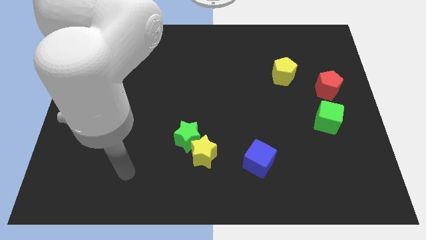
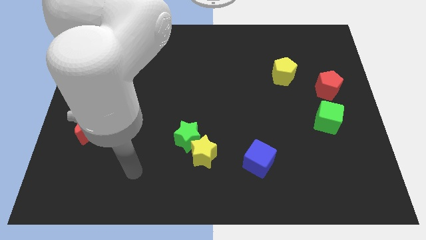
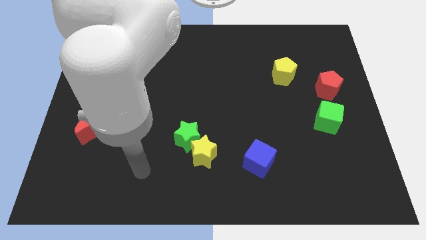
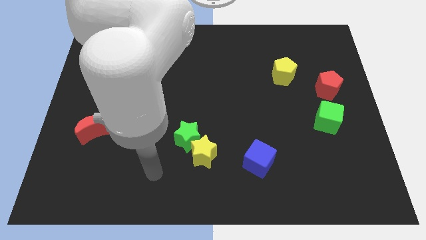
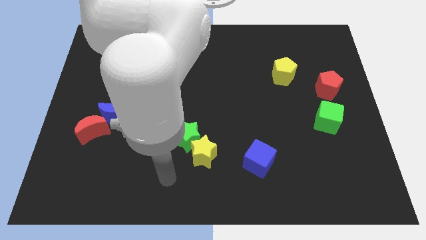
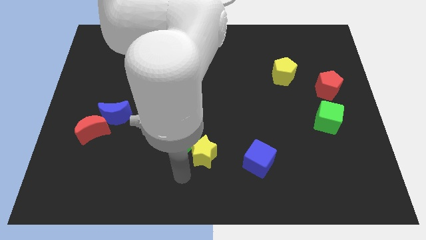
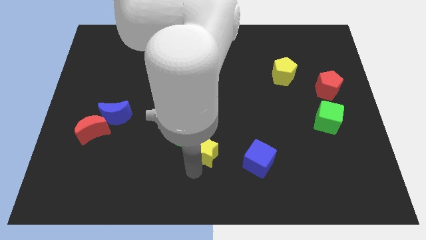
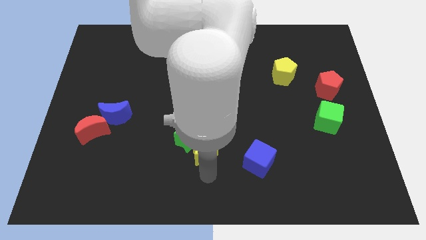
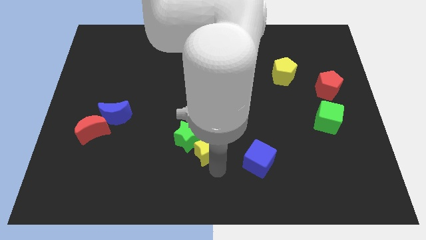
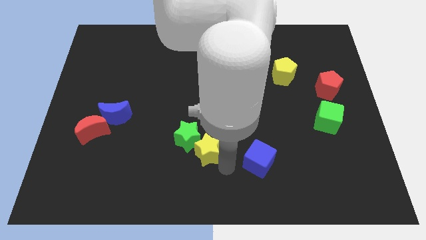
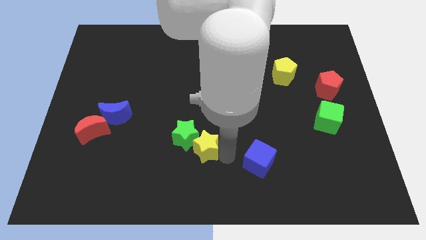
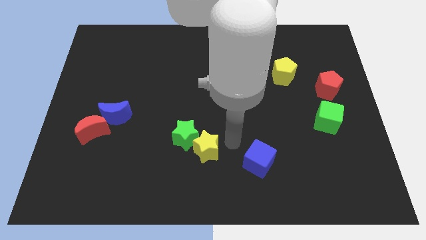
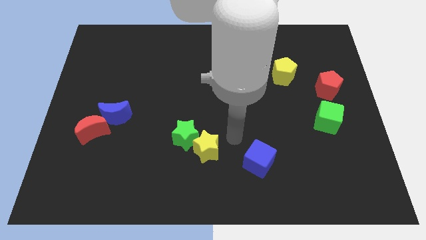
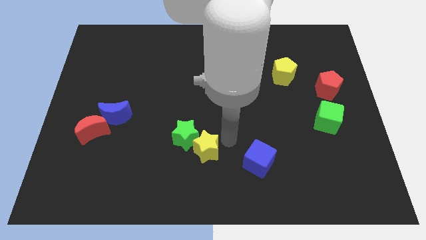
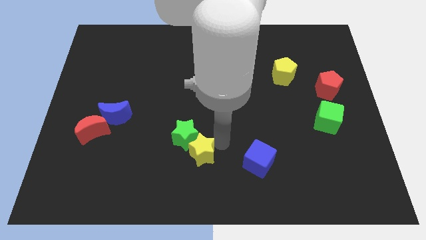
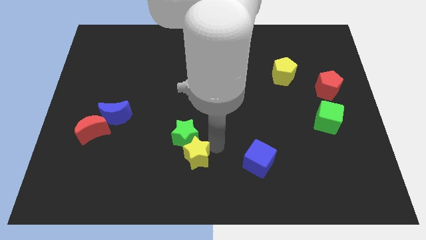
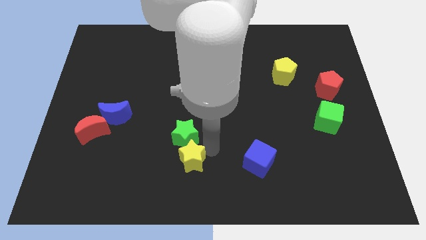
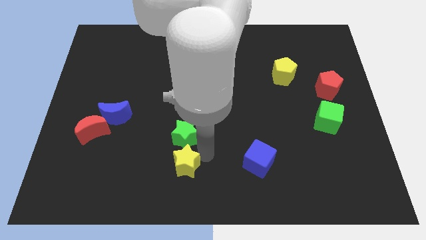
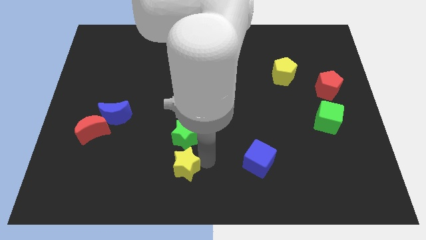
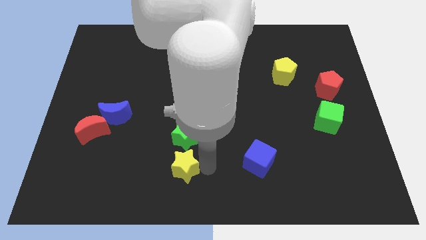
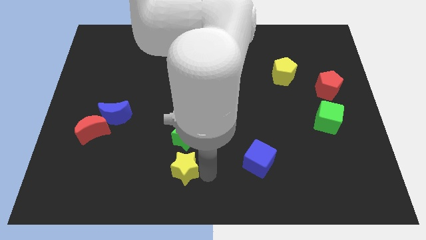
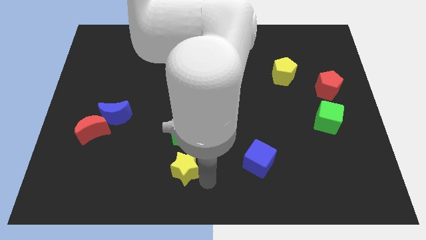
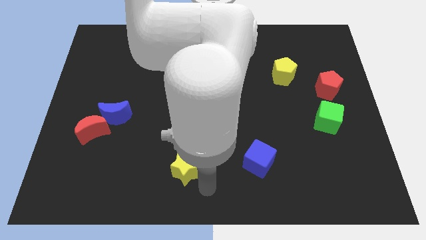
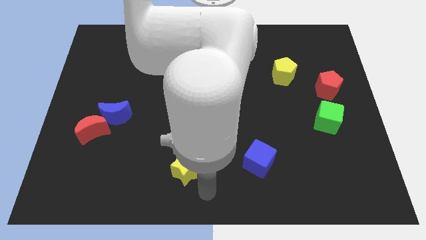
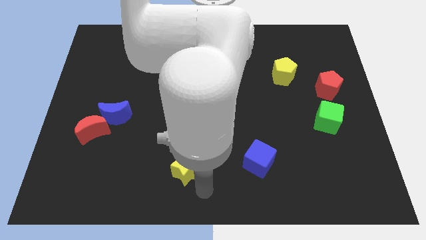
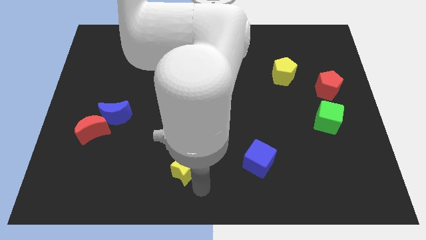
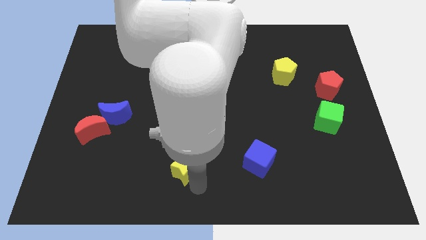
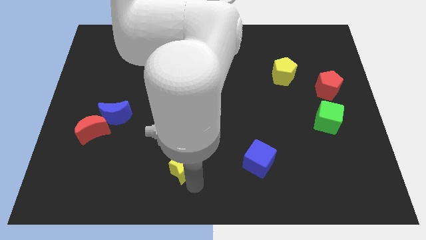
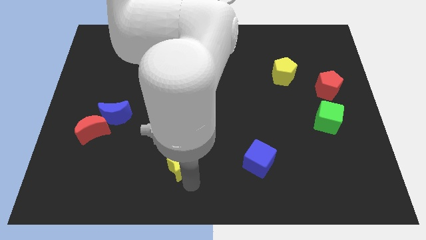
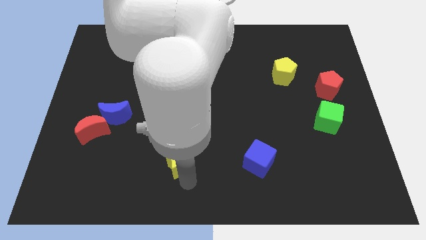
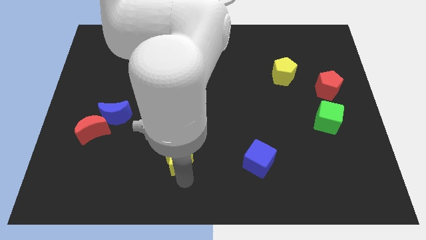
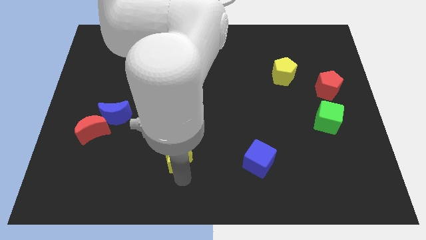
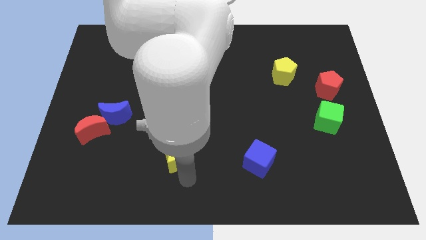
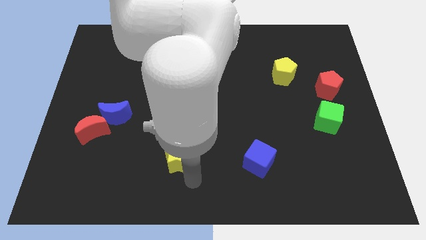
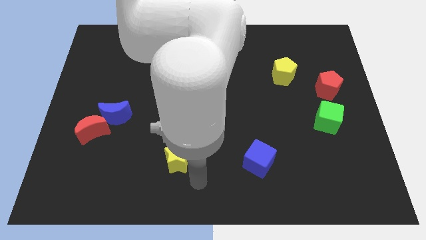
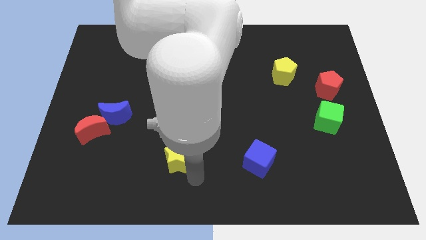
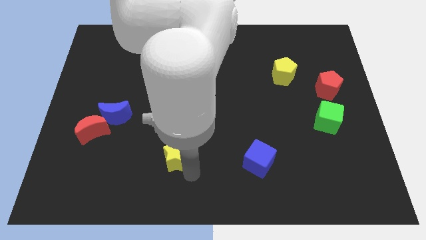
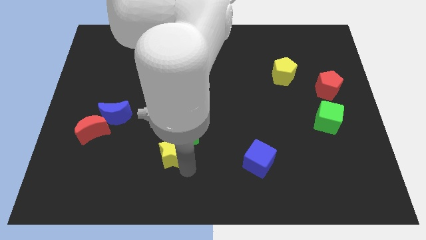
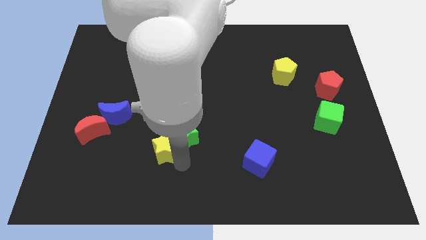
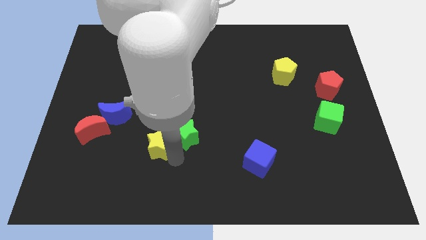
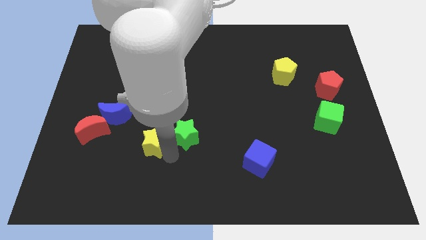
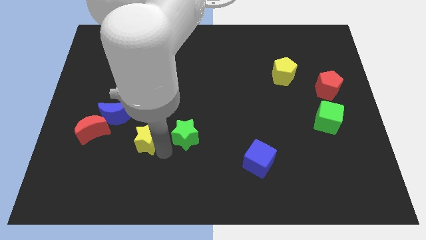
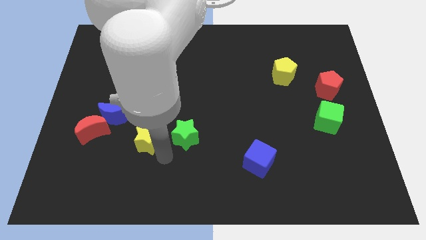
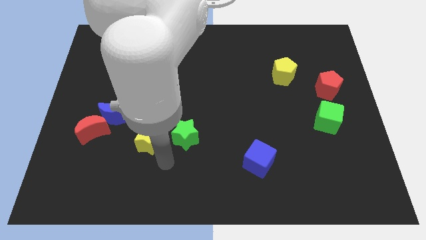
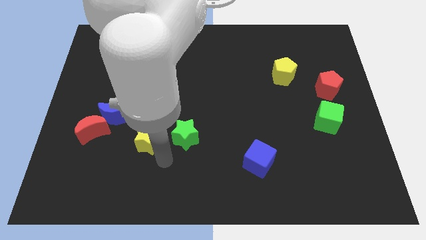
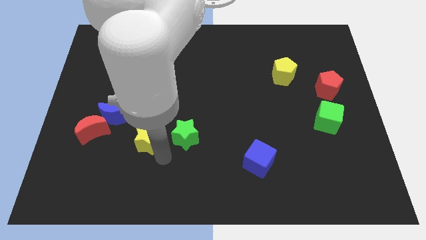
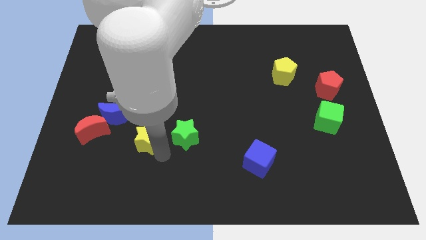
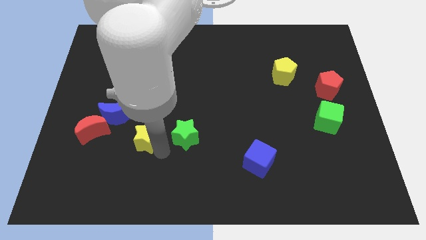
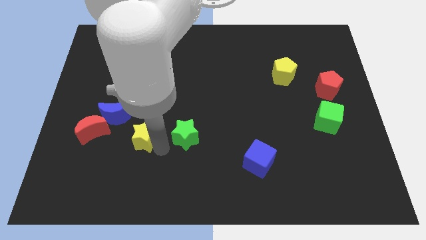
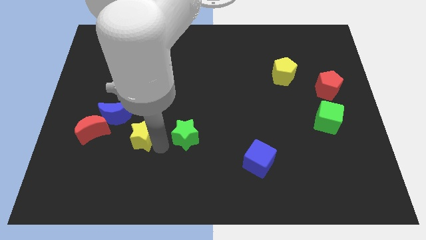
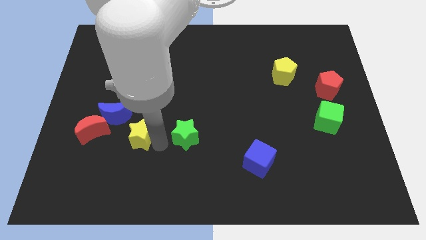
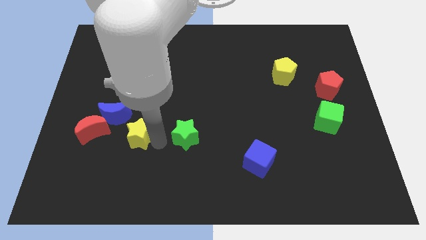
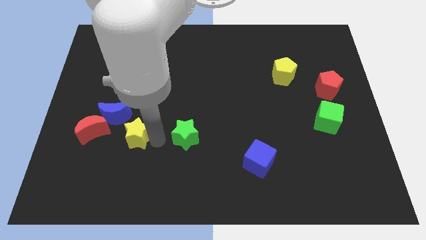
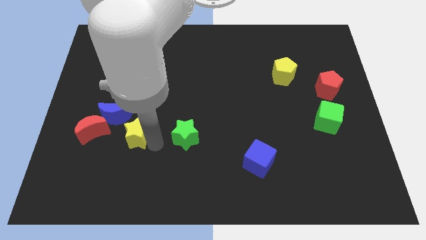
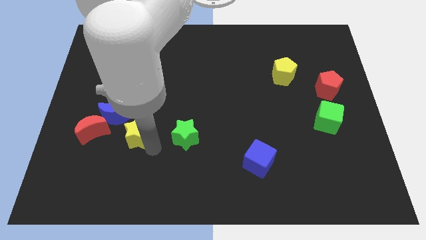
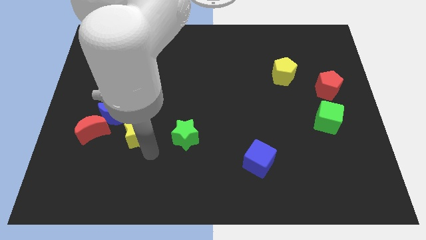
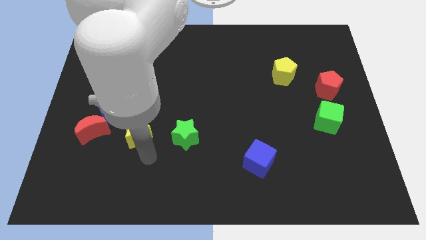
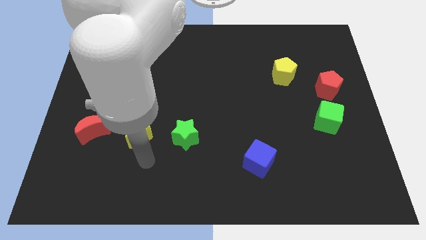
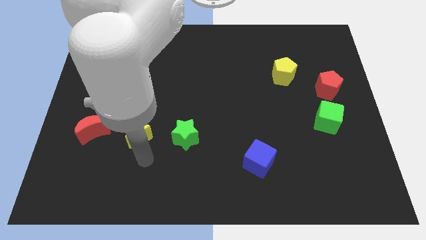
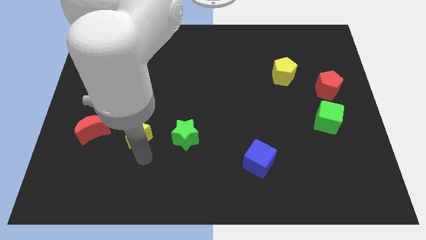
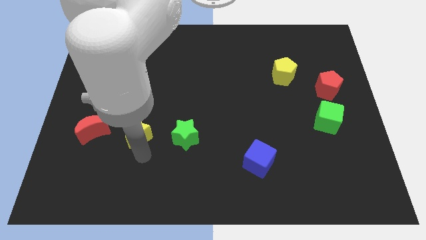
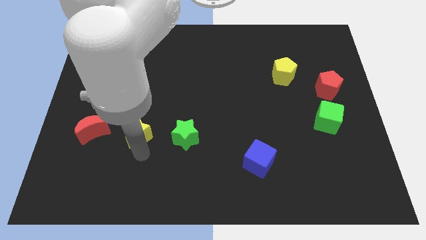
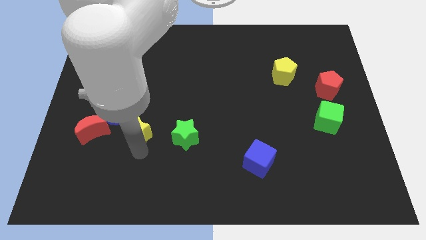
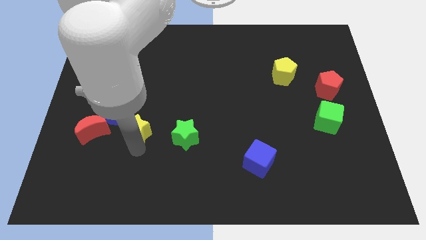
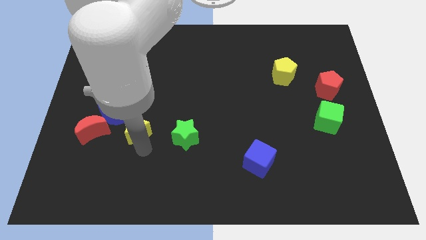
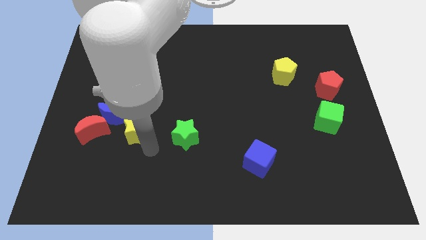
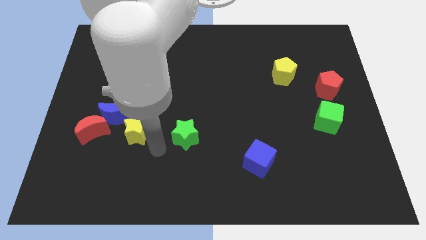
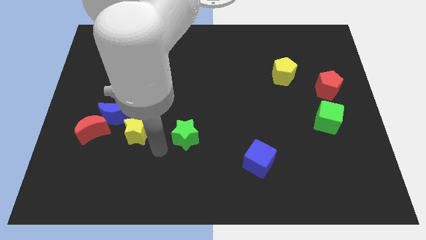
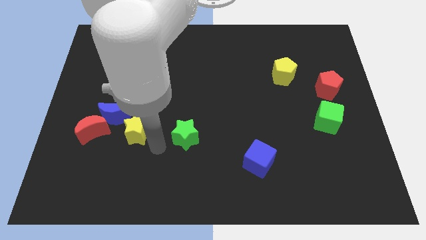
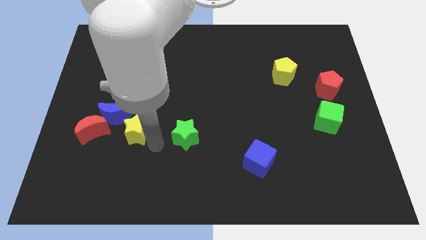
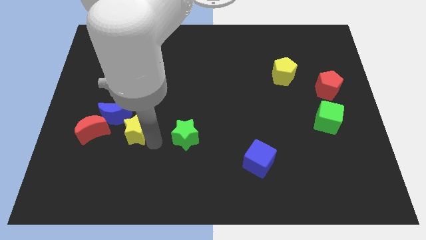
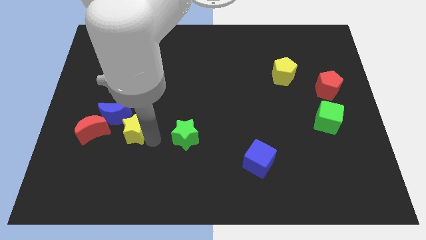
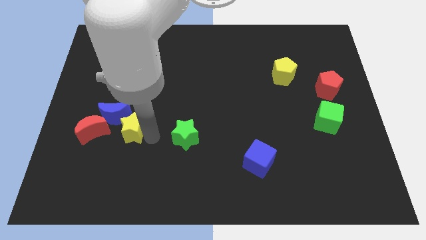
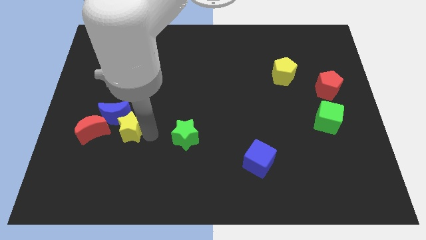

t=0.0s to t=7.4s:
put the yellow star to the blue moon

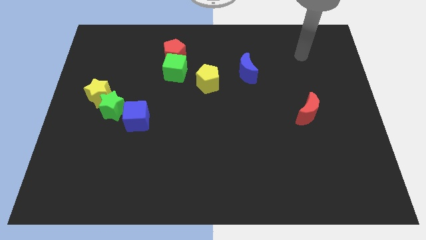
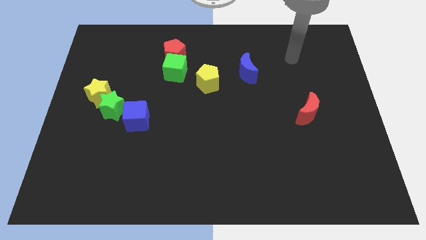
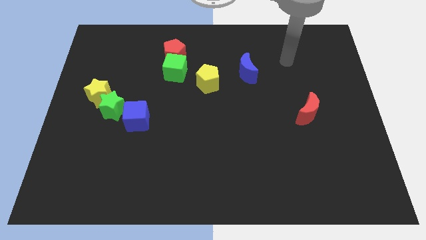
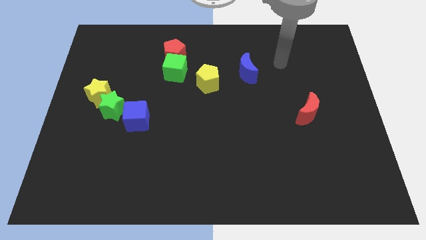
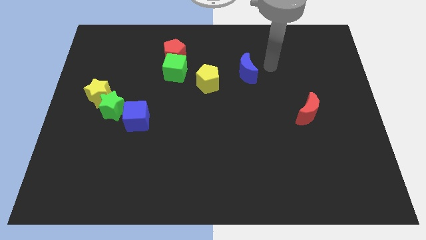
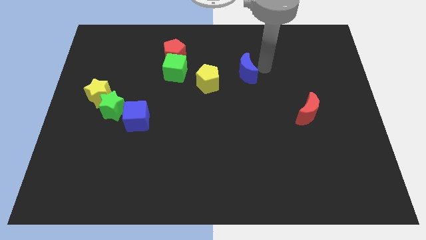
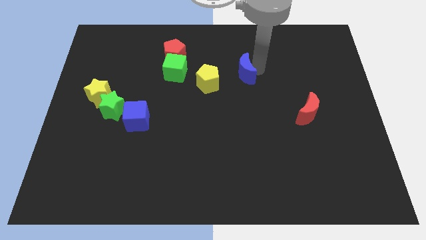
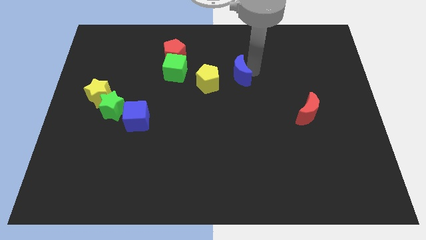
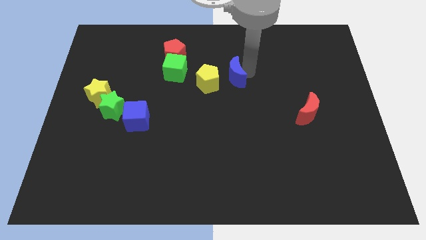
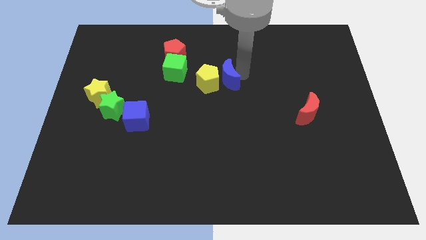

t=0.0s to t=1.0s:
push the blue moon close to the yellow pentagon
